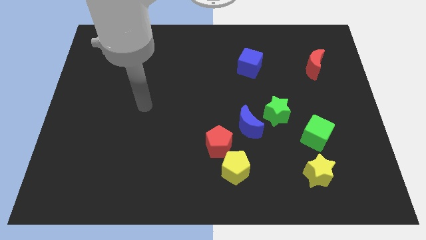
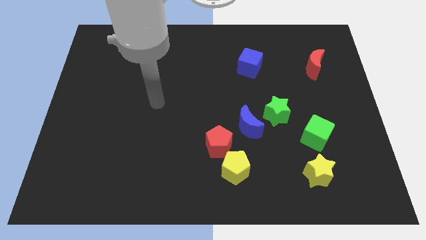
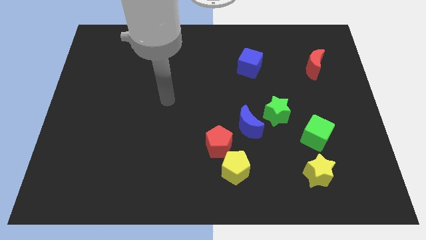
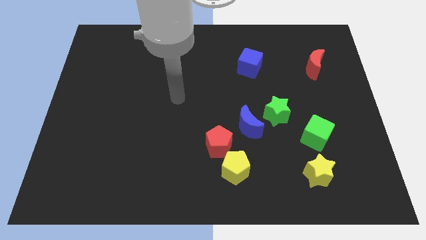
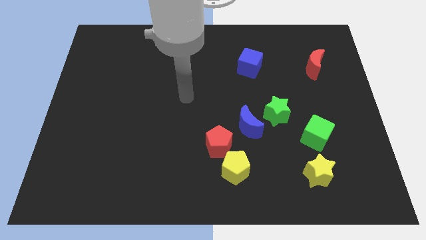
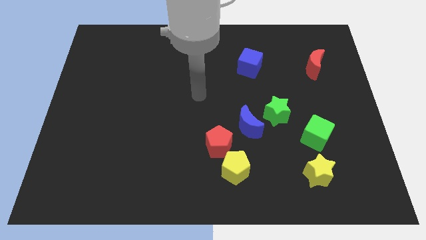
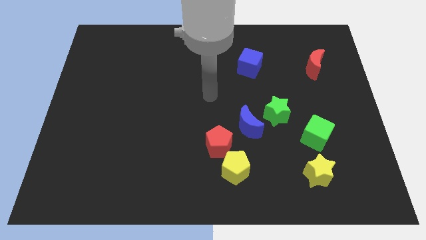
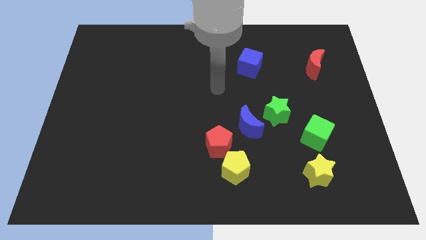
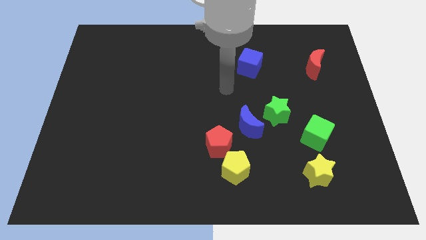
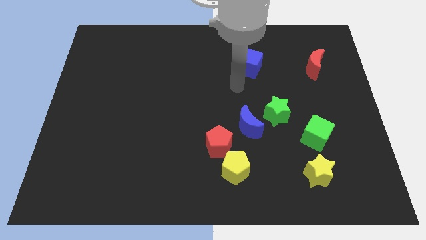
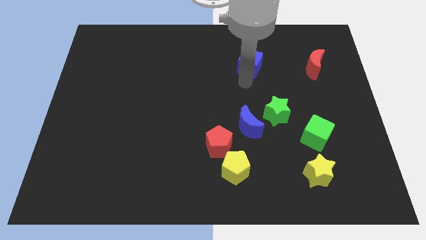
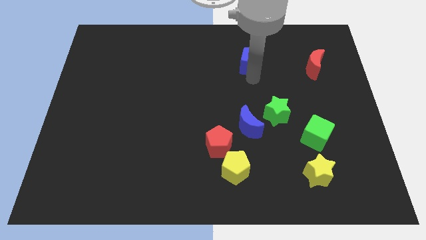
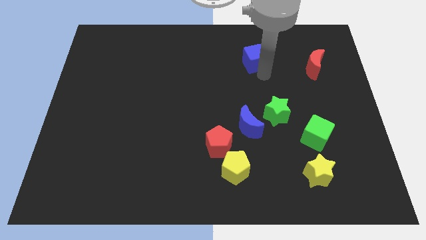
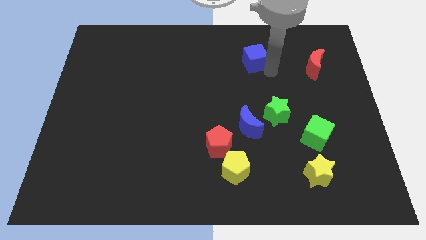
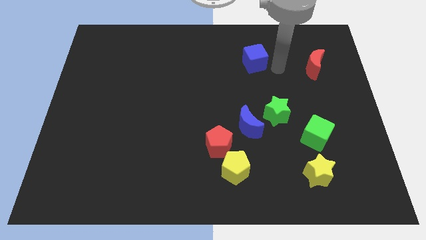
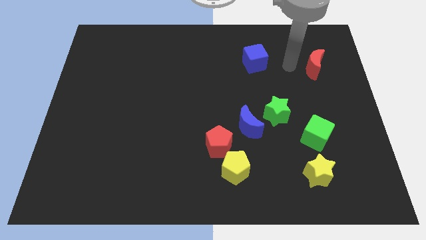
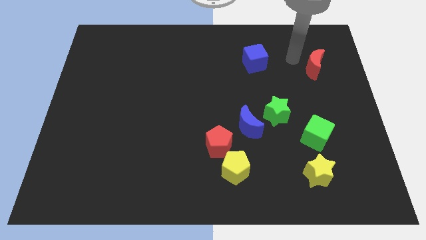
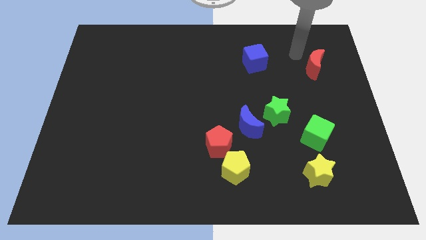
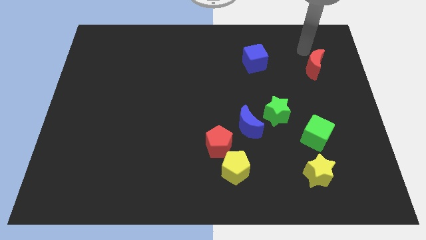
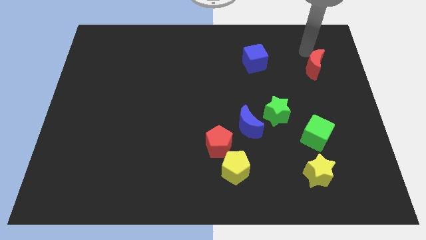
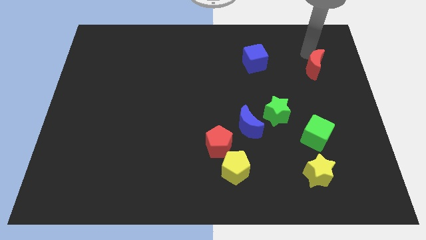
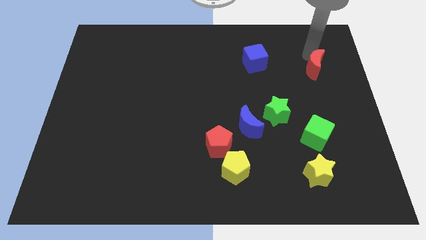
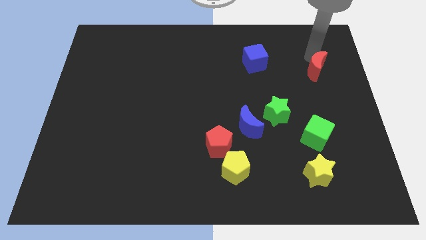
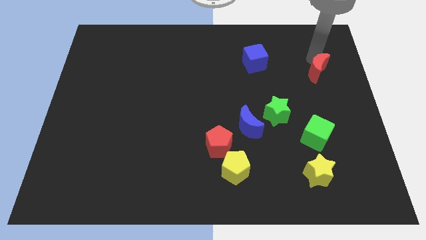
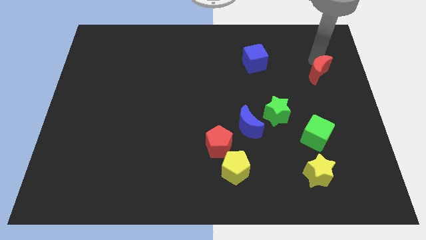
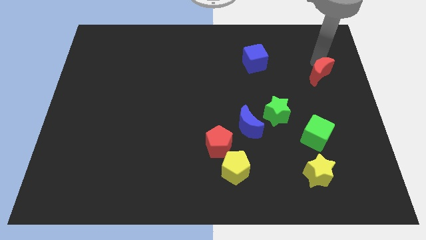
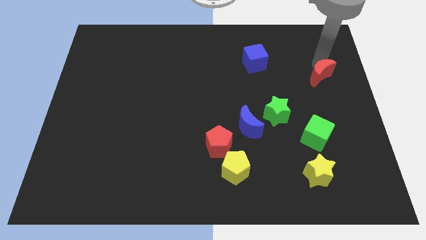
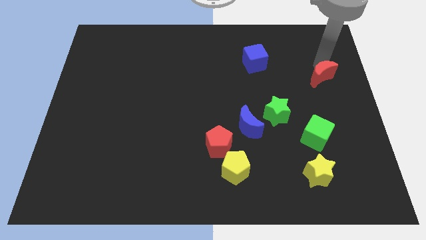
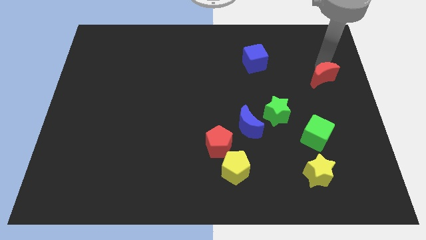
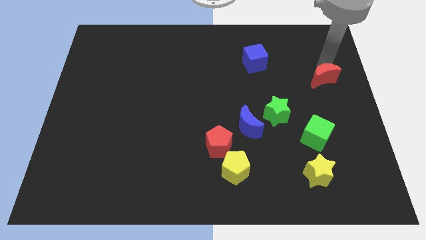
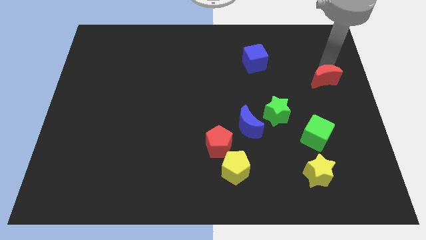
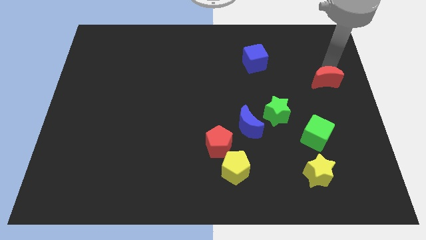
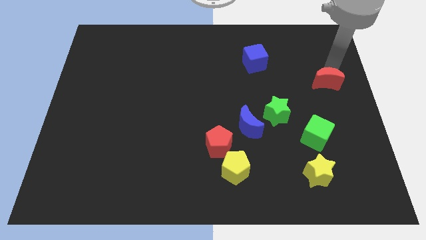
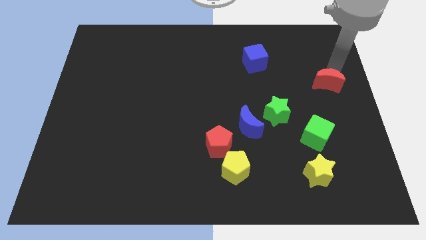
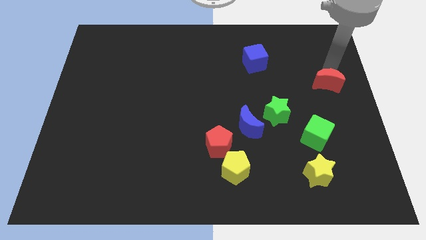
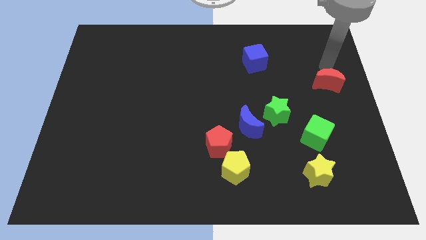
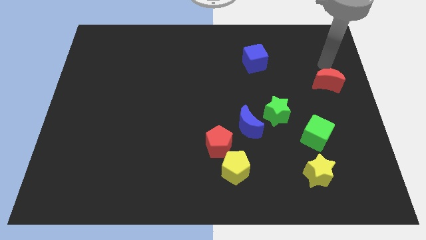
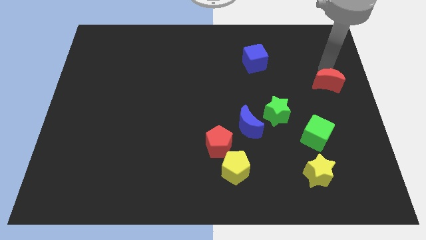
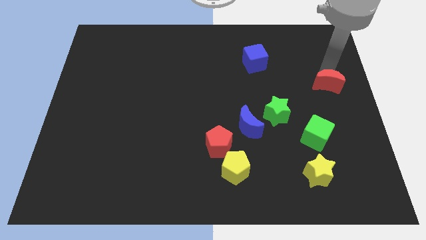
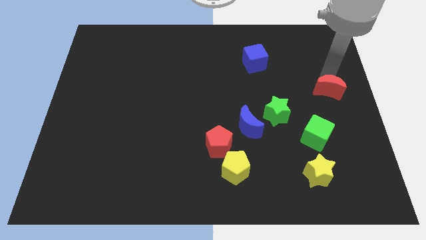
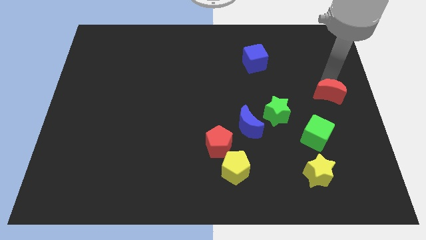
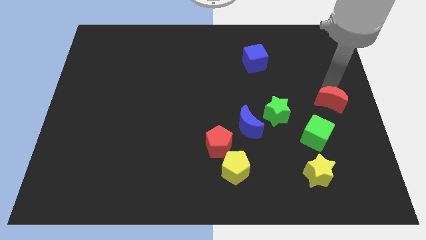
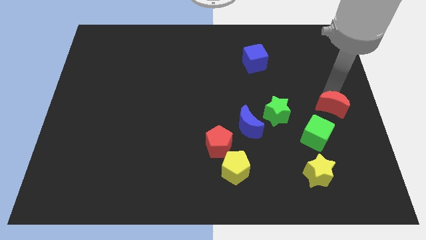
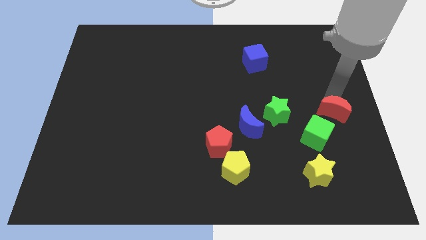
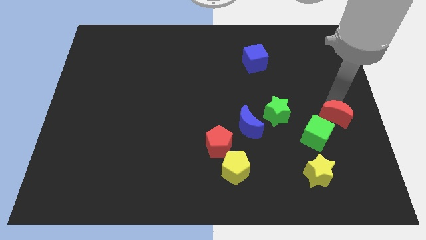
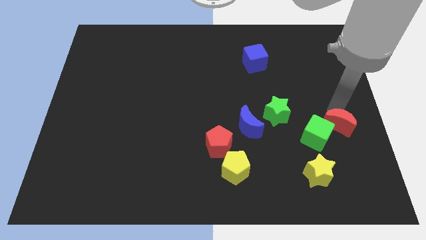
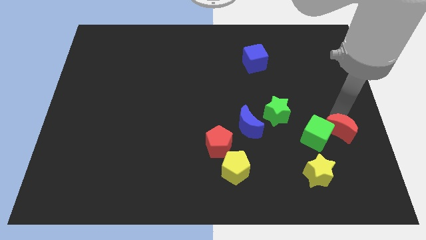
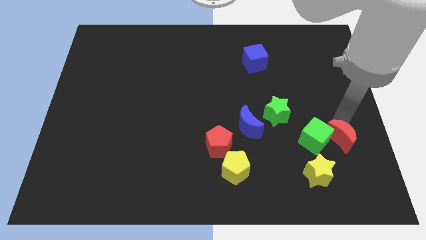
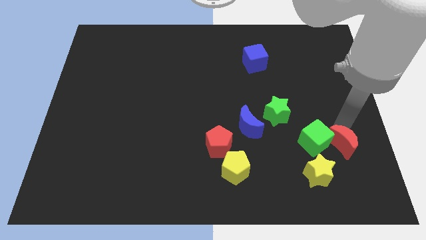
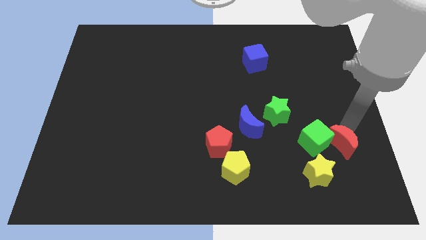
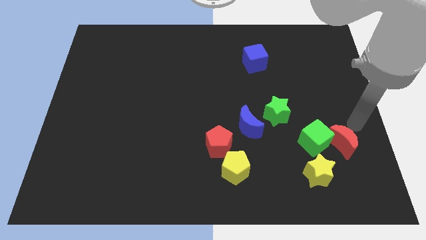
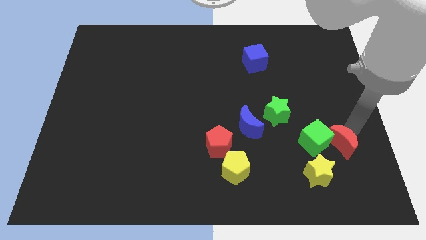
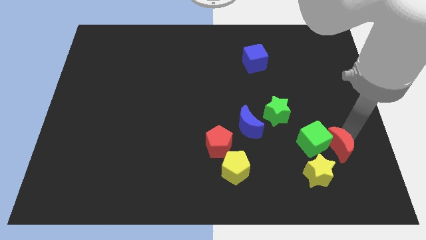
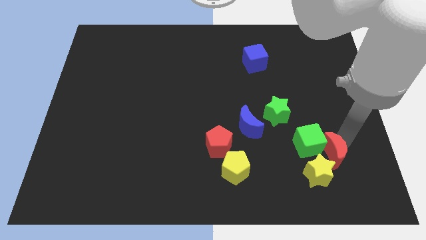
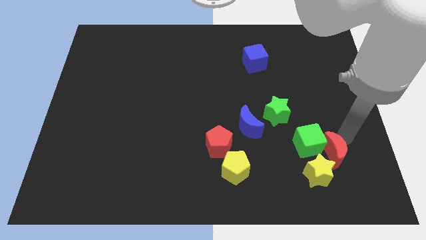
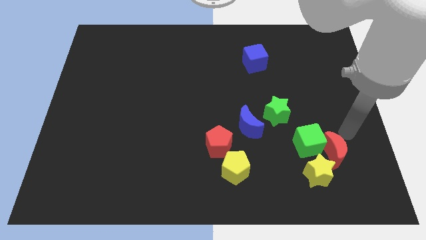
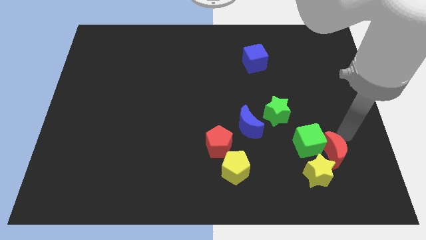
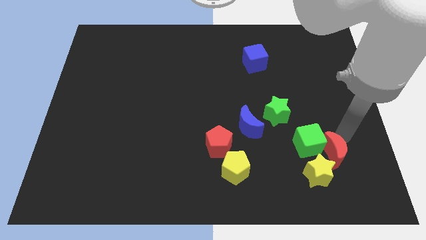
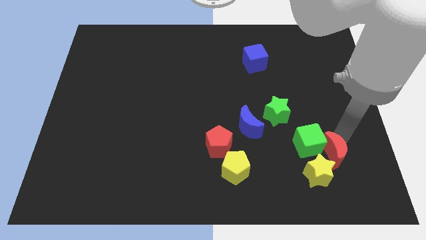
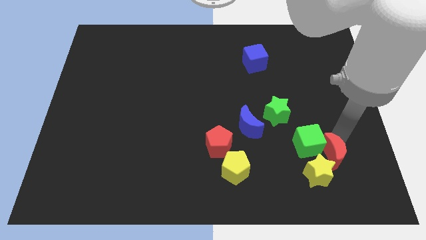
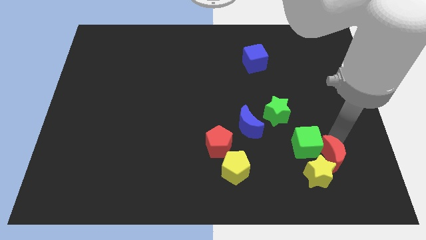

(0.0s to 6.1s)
put the red moon close to the yellow star

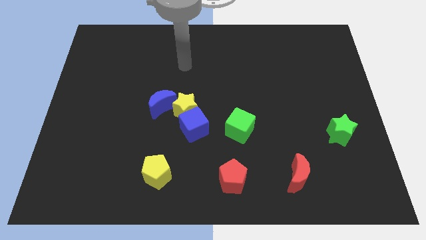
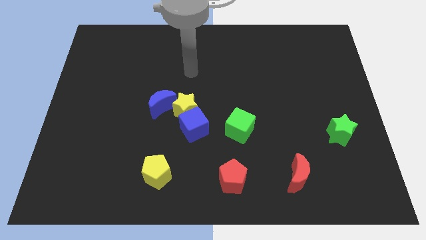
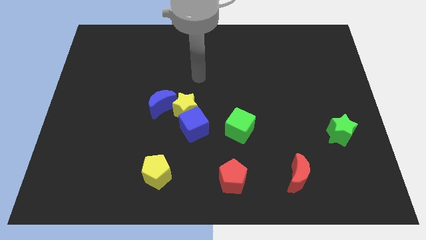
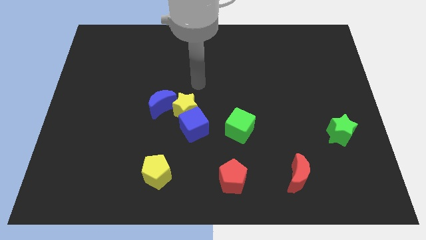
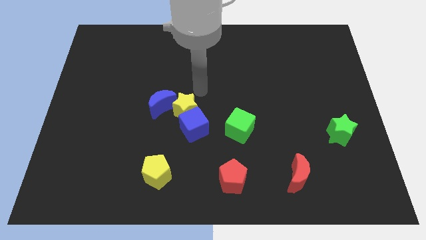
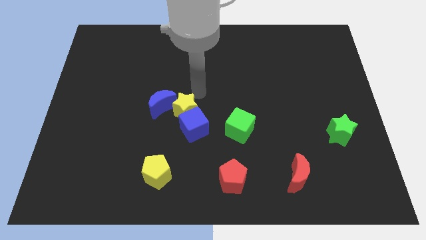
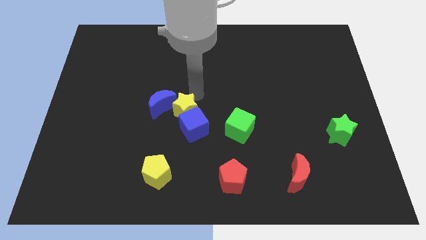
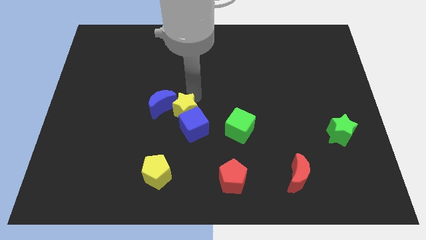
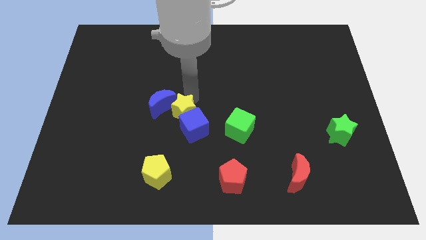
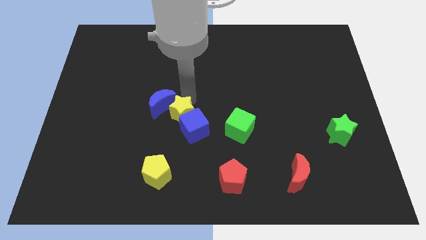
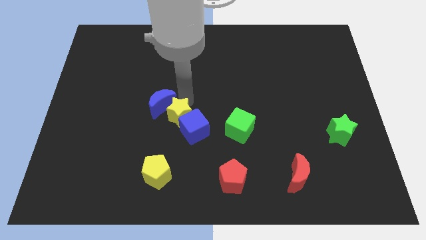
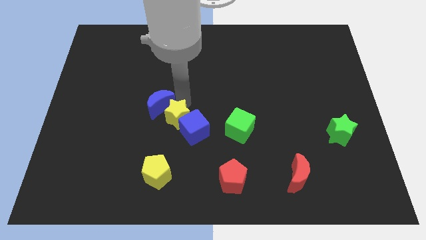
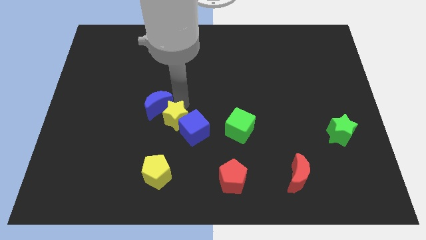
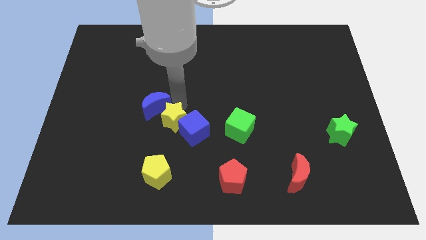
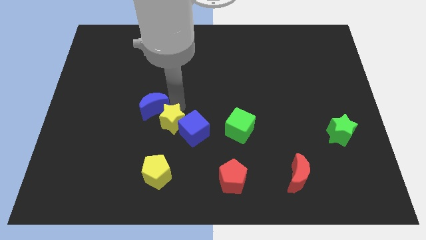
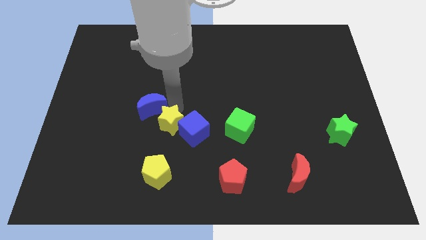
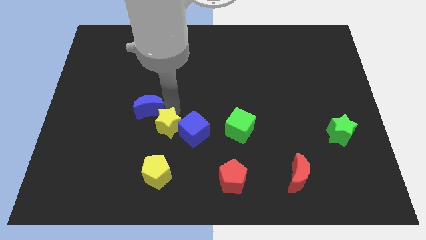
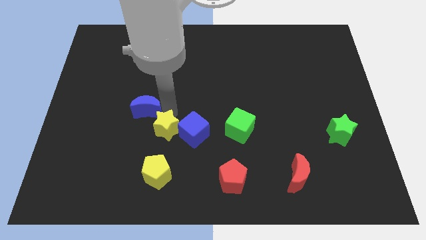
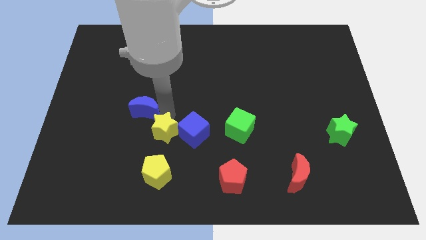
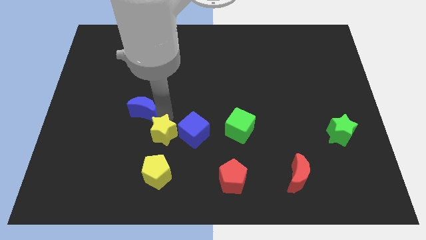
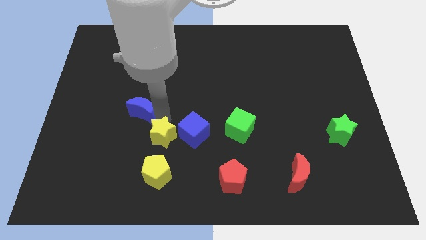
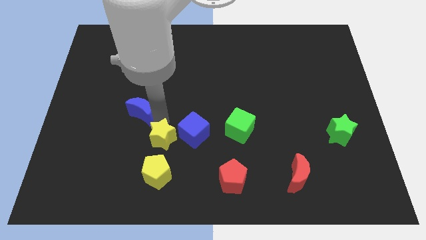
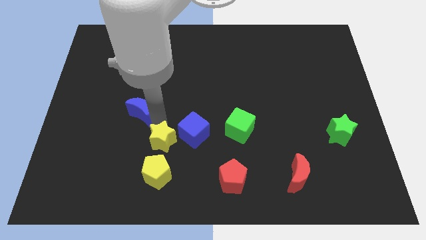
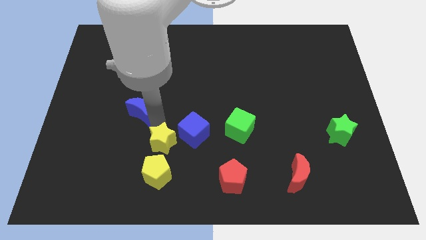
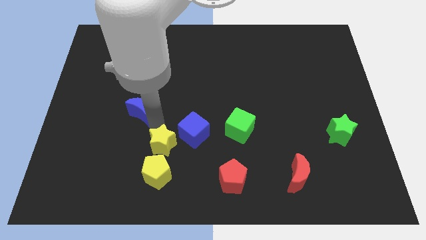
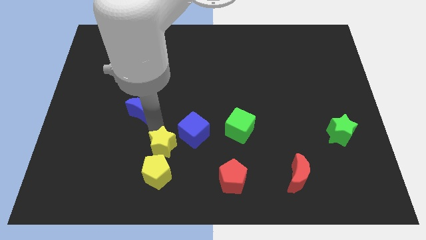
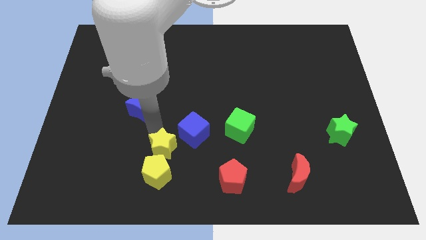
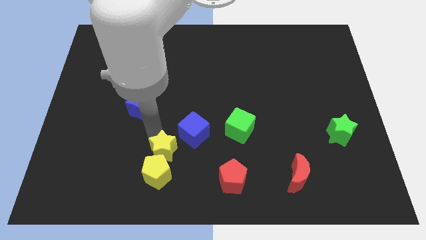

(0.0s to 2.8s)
slide the yellow star to the yellow pentagon
